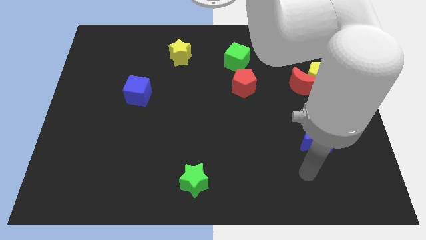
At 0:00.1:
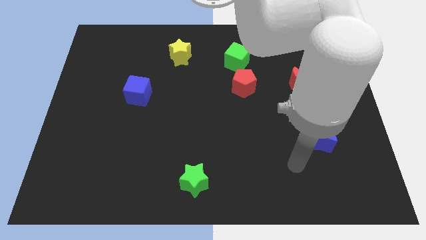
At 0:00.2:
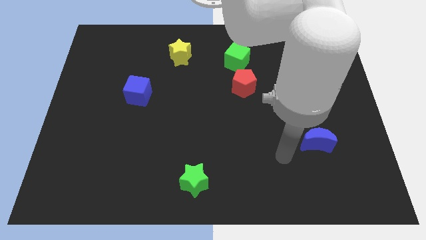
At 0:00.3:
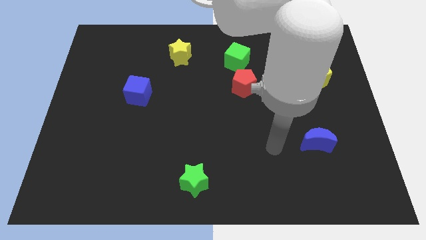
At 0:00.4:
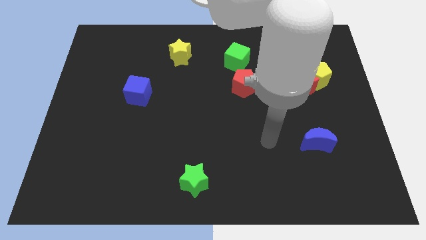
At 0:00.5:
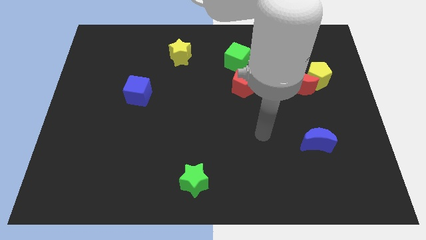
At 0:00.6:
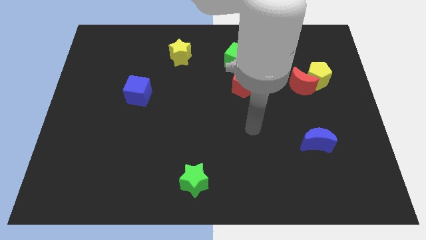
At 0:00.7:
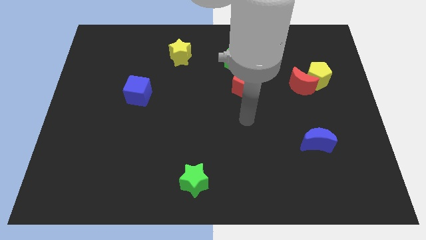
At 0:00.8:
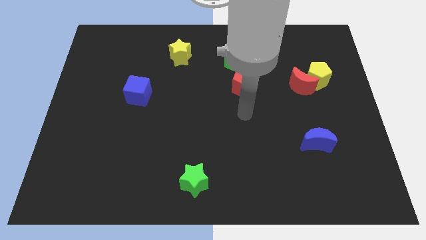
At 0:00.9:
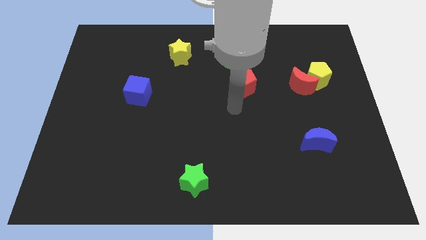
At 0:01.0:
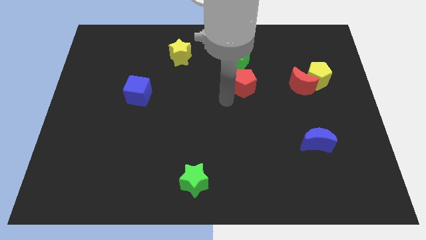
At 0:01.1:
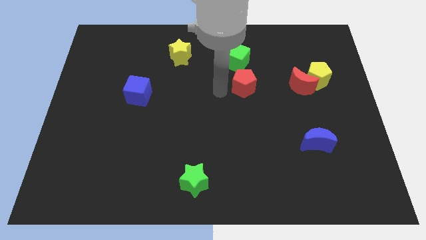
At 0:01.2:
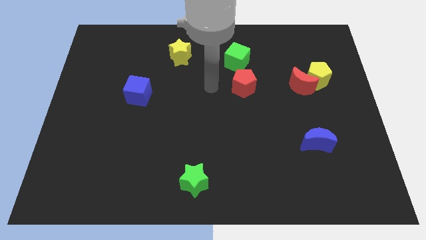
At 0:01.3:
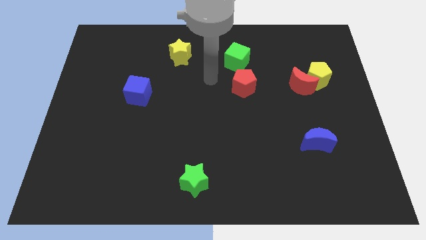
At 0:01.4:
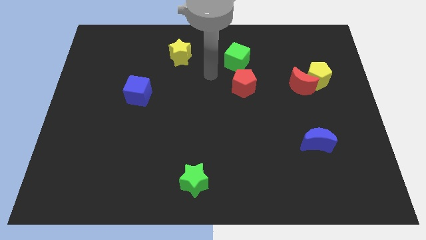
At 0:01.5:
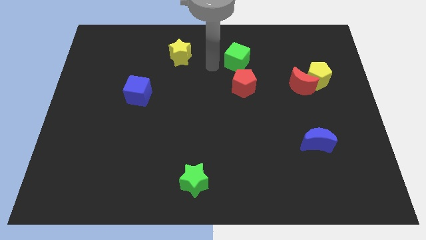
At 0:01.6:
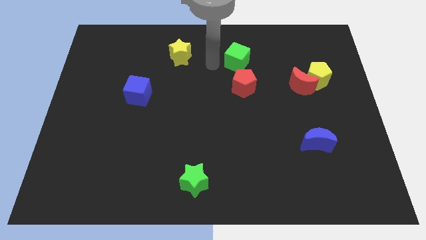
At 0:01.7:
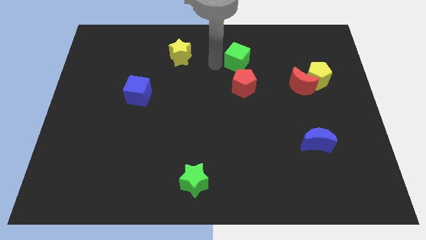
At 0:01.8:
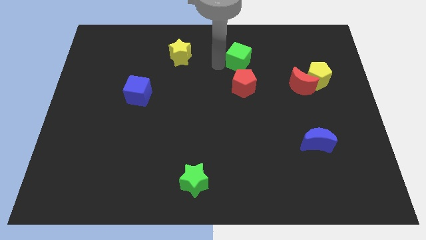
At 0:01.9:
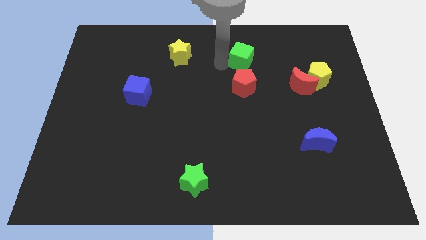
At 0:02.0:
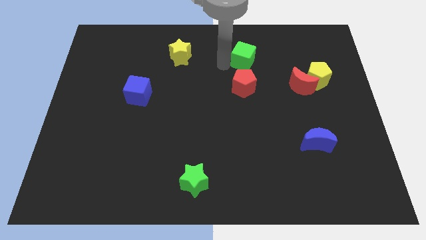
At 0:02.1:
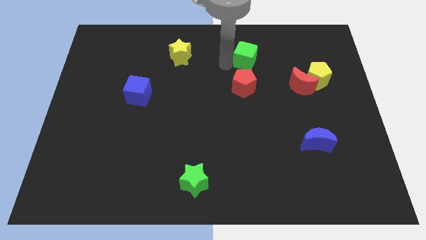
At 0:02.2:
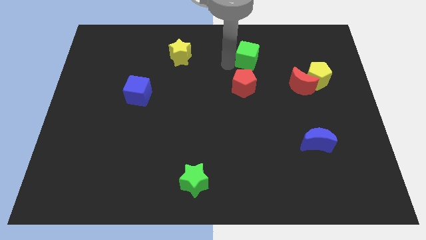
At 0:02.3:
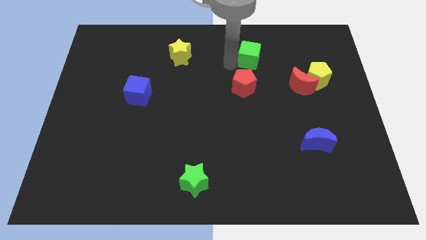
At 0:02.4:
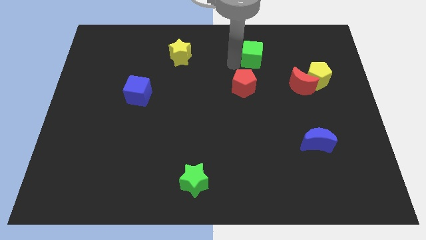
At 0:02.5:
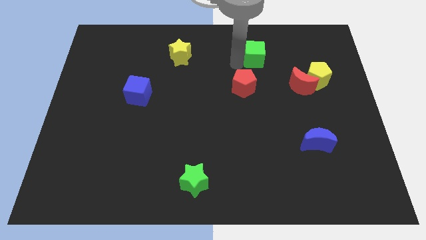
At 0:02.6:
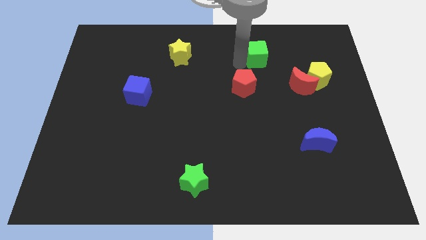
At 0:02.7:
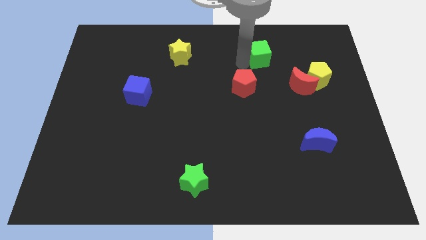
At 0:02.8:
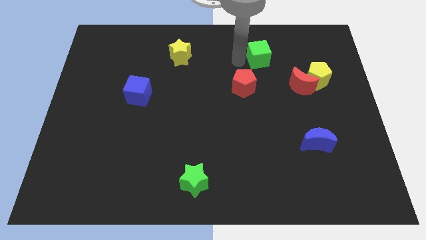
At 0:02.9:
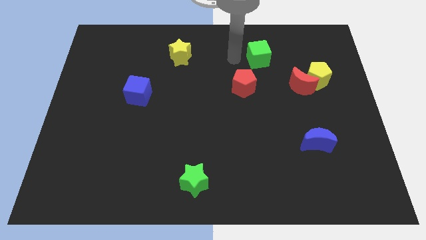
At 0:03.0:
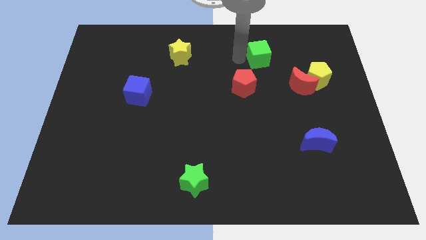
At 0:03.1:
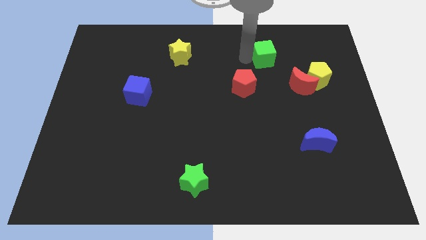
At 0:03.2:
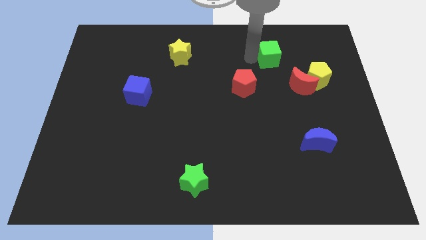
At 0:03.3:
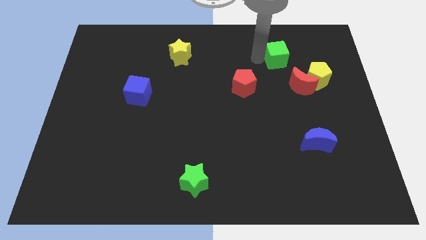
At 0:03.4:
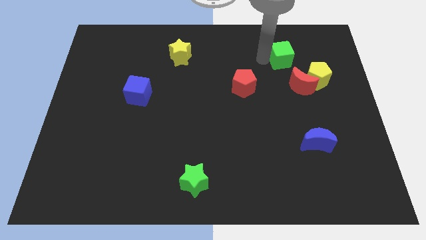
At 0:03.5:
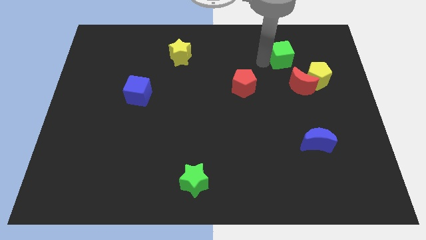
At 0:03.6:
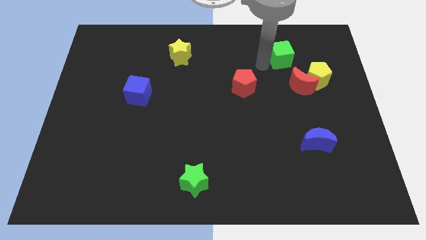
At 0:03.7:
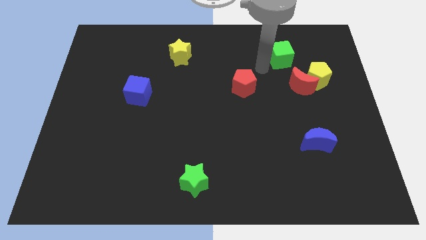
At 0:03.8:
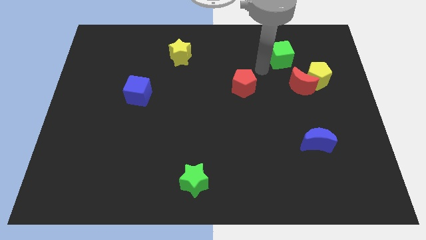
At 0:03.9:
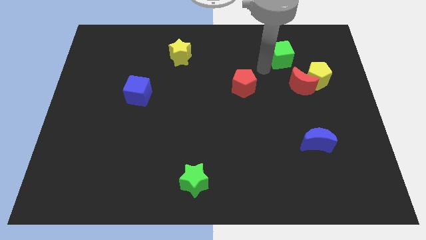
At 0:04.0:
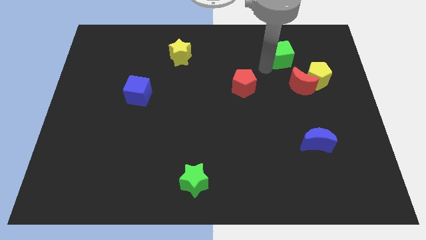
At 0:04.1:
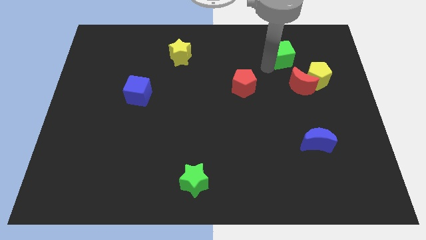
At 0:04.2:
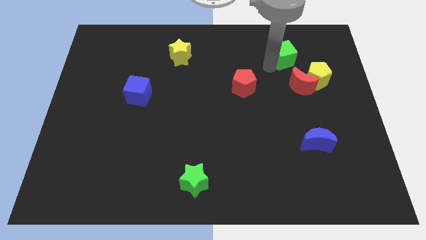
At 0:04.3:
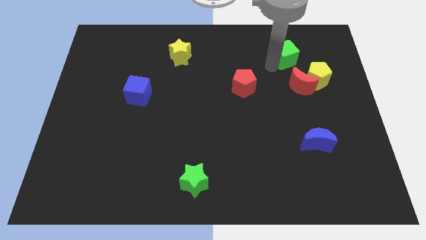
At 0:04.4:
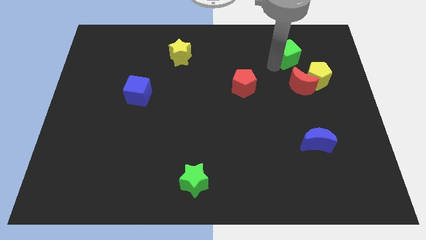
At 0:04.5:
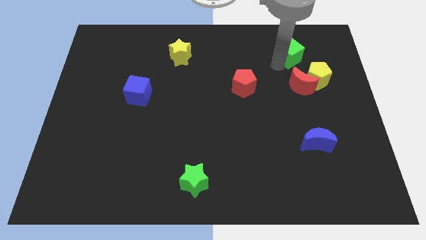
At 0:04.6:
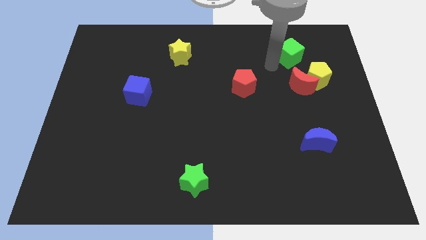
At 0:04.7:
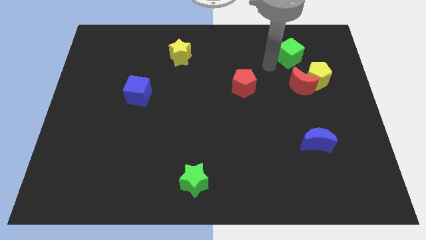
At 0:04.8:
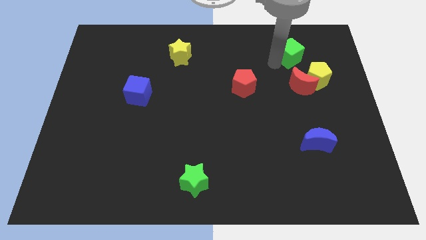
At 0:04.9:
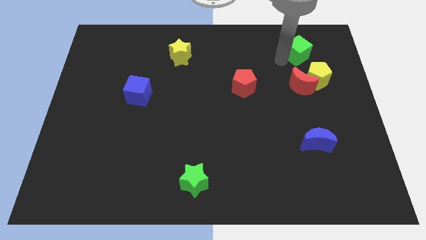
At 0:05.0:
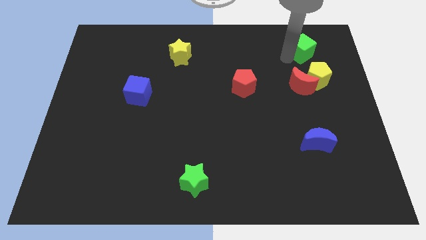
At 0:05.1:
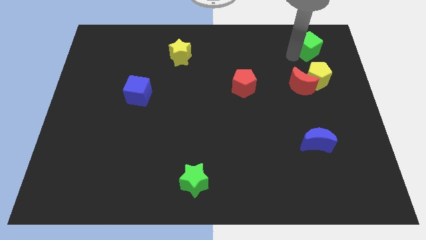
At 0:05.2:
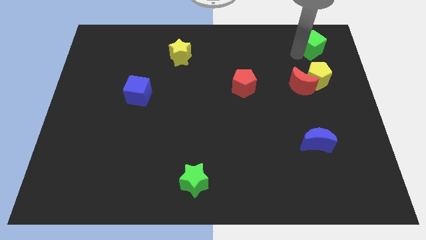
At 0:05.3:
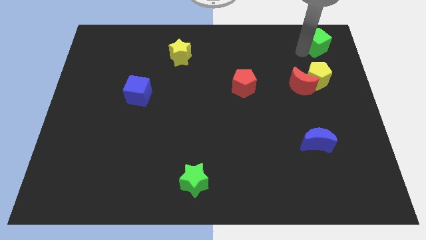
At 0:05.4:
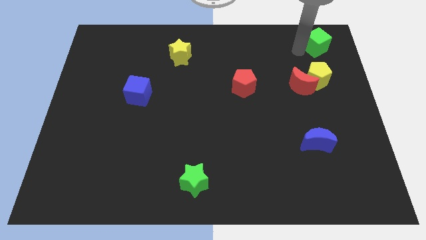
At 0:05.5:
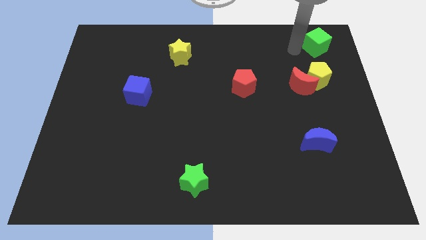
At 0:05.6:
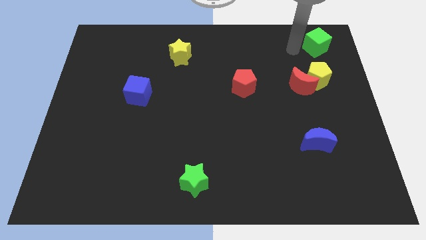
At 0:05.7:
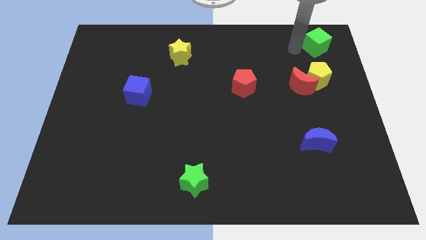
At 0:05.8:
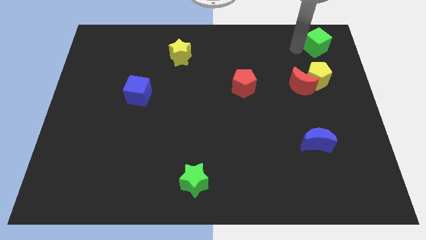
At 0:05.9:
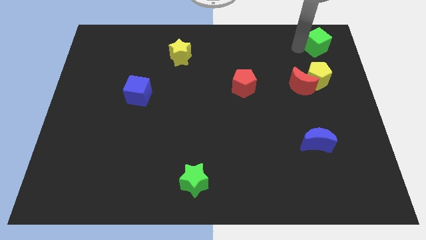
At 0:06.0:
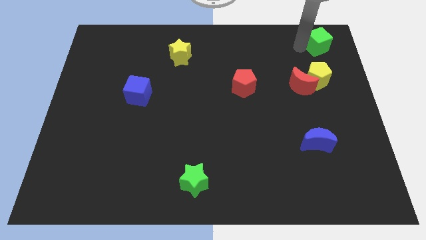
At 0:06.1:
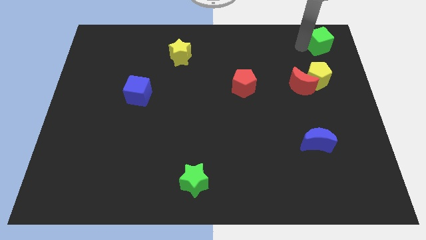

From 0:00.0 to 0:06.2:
put the green cube to the top right corner

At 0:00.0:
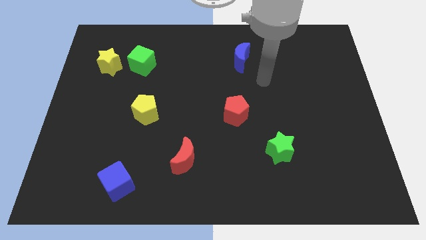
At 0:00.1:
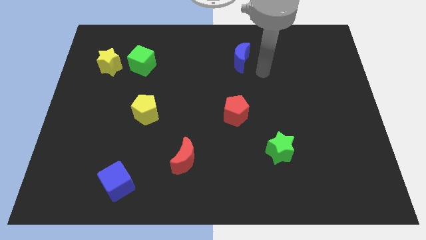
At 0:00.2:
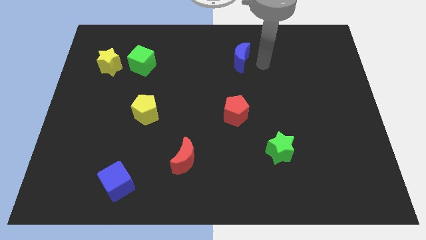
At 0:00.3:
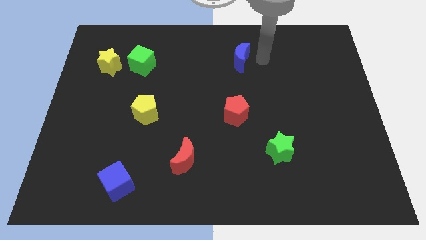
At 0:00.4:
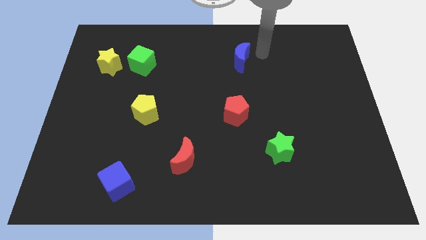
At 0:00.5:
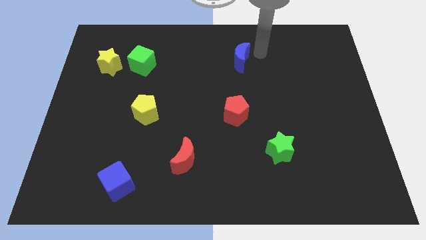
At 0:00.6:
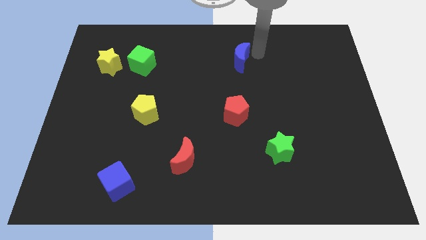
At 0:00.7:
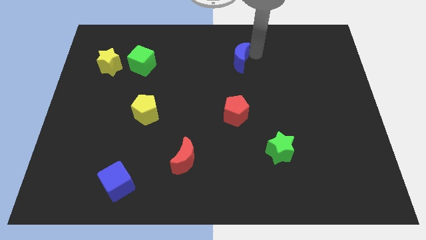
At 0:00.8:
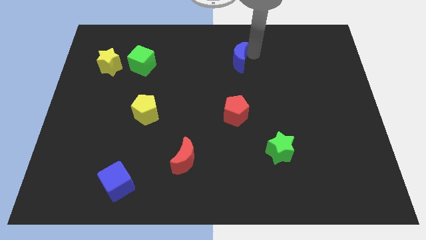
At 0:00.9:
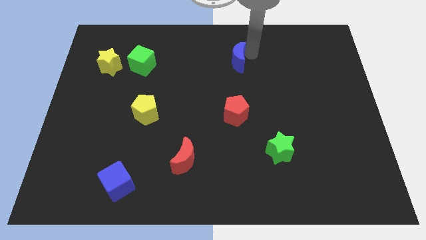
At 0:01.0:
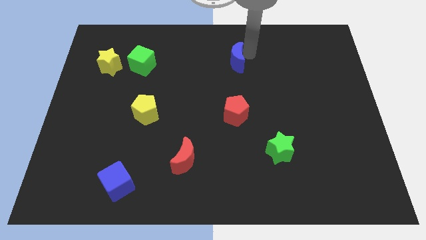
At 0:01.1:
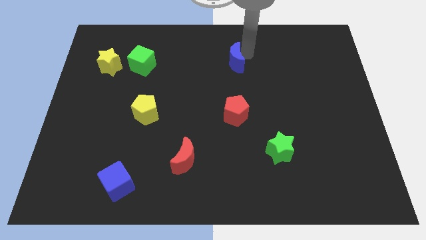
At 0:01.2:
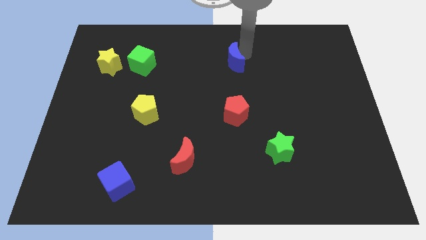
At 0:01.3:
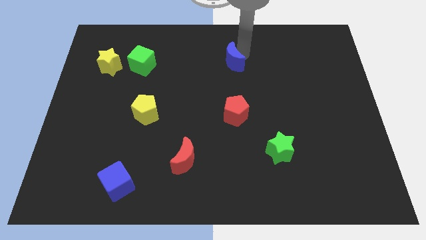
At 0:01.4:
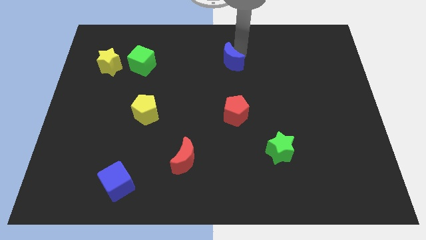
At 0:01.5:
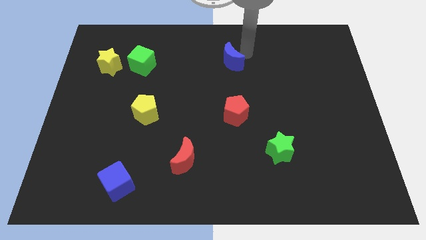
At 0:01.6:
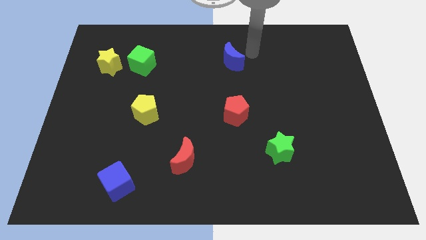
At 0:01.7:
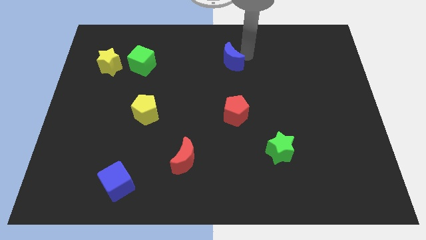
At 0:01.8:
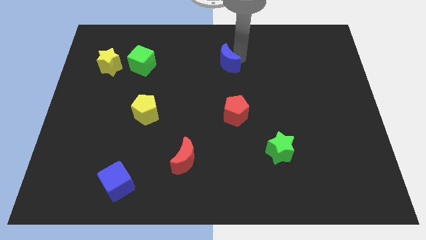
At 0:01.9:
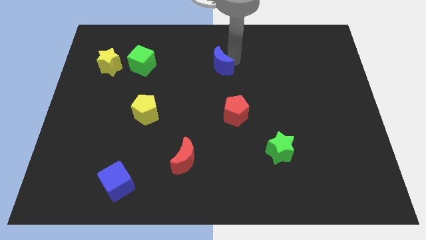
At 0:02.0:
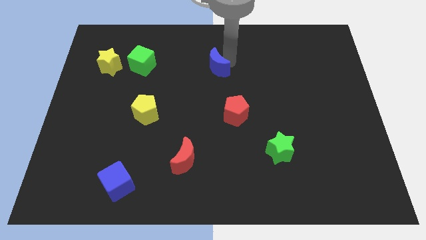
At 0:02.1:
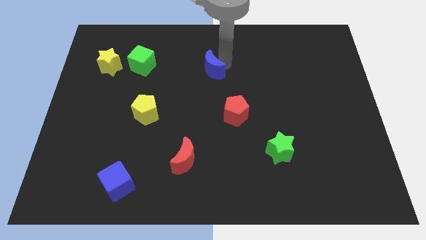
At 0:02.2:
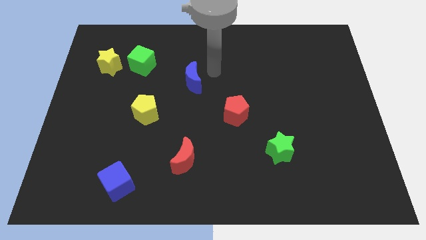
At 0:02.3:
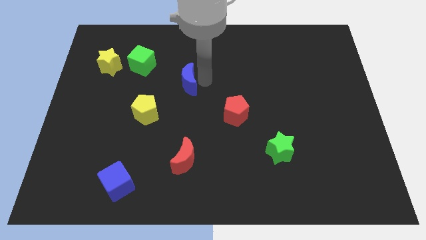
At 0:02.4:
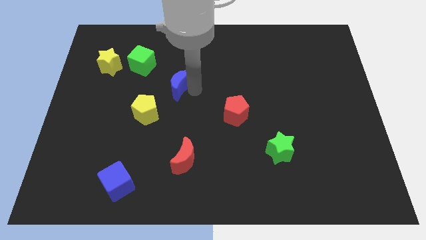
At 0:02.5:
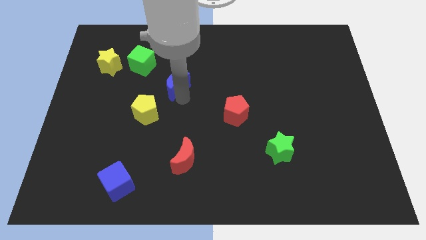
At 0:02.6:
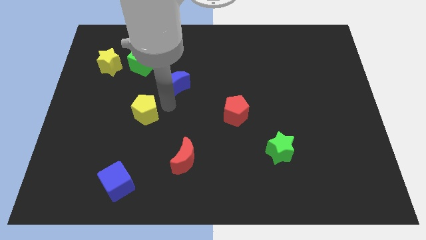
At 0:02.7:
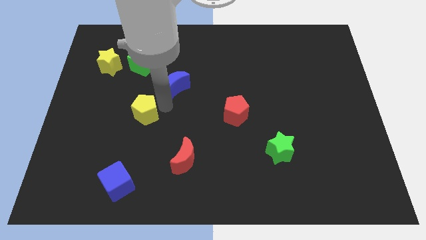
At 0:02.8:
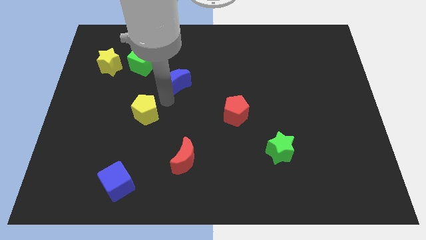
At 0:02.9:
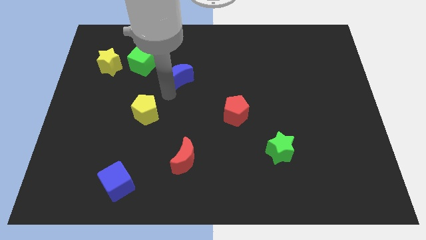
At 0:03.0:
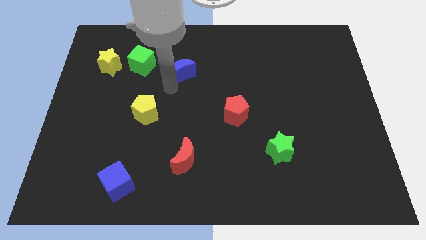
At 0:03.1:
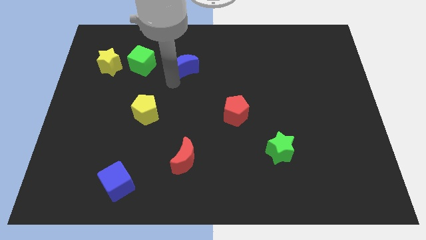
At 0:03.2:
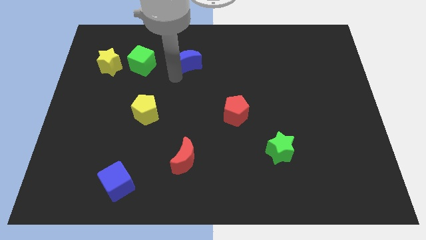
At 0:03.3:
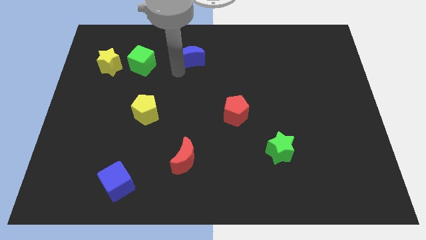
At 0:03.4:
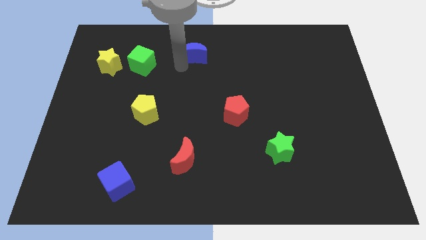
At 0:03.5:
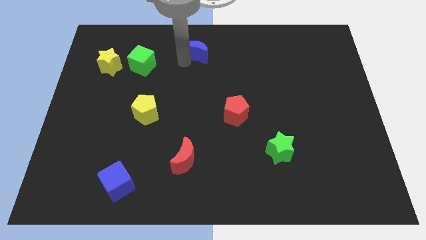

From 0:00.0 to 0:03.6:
push the blue moon to the top
